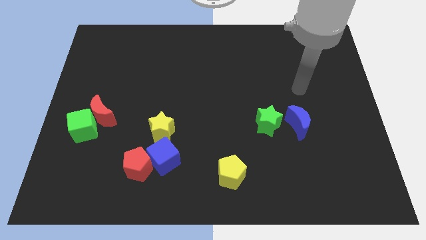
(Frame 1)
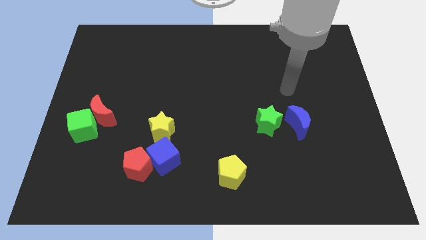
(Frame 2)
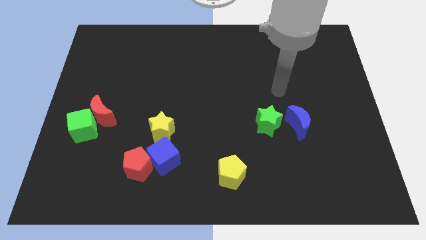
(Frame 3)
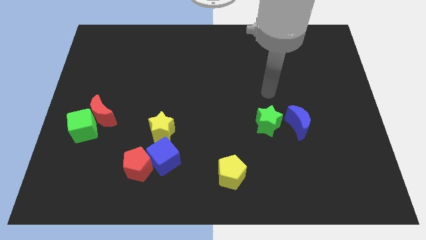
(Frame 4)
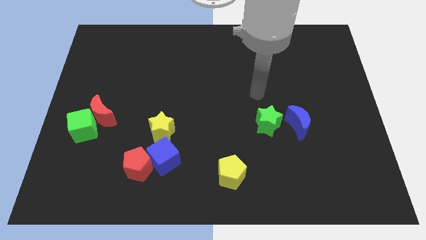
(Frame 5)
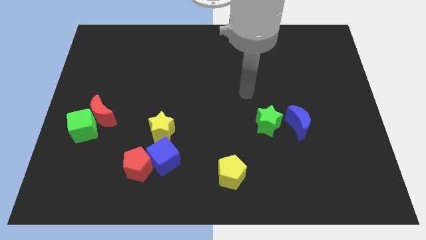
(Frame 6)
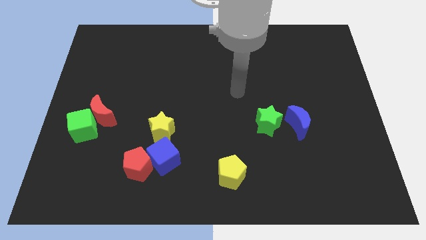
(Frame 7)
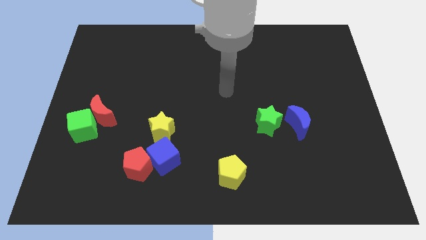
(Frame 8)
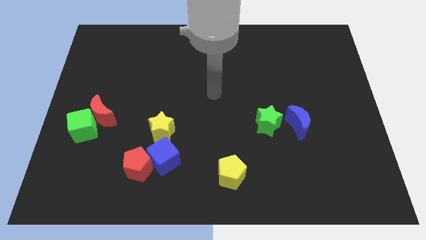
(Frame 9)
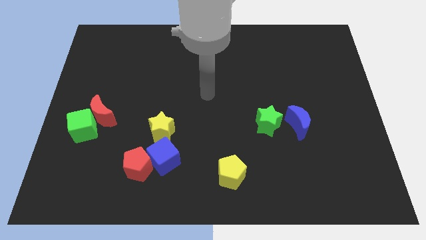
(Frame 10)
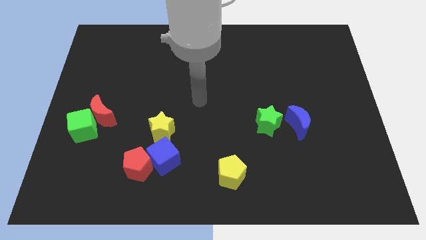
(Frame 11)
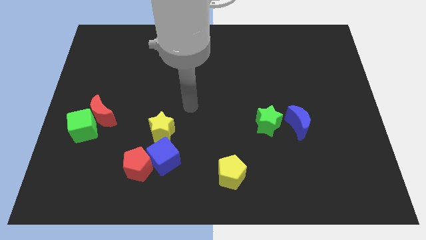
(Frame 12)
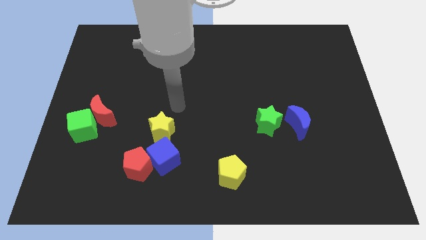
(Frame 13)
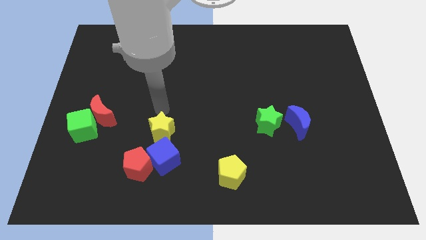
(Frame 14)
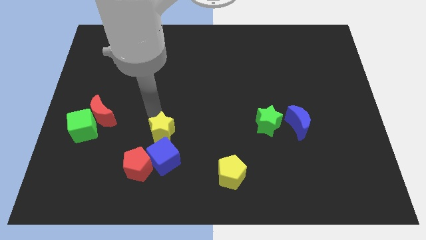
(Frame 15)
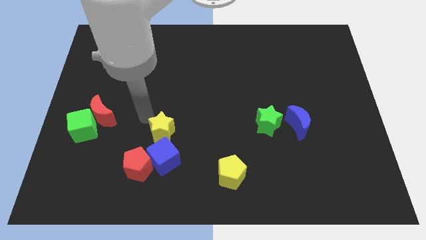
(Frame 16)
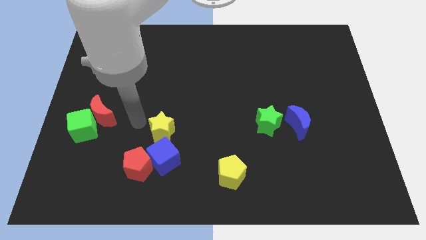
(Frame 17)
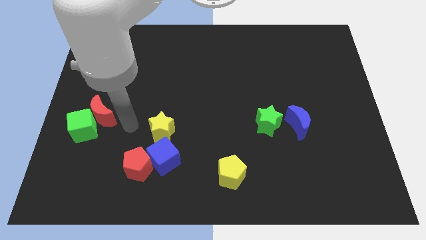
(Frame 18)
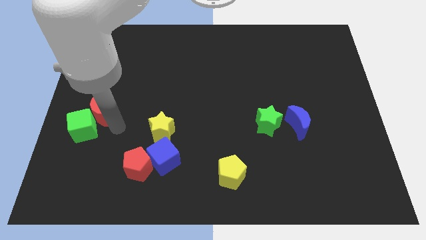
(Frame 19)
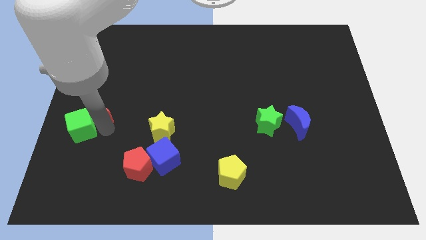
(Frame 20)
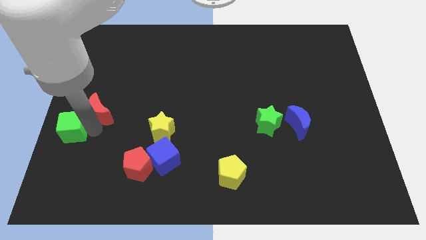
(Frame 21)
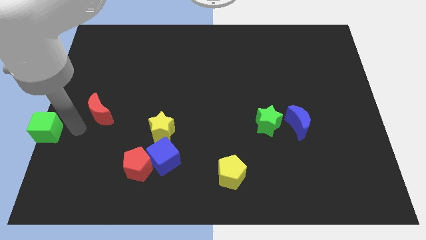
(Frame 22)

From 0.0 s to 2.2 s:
pull the red moon apart from the green cube

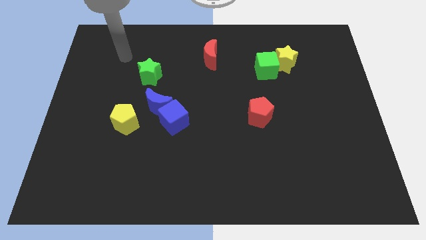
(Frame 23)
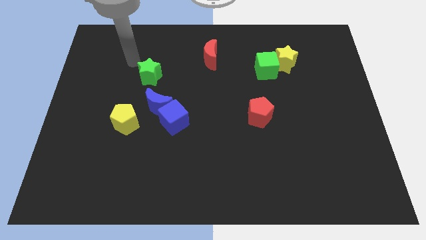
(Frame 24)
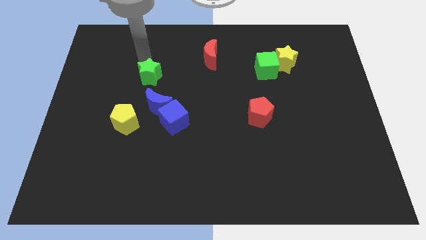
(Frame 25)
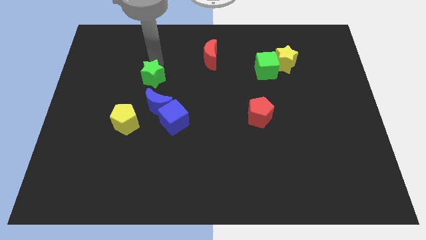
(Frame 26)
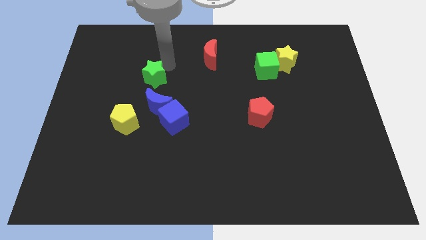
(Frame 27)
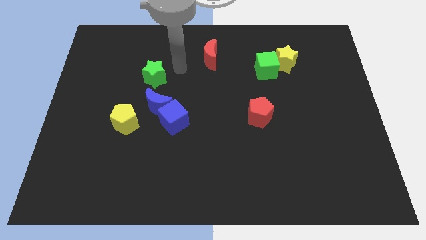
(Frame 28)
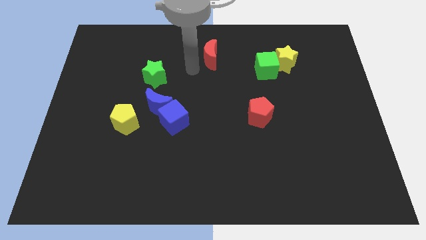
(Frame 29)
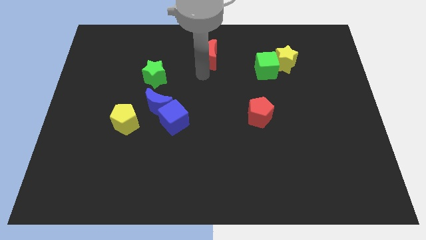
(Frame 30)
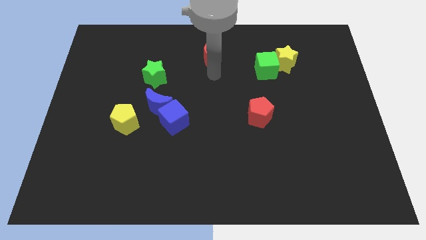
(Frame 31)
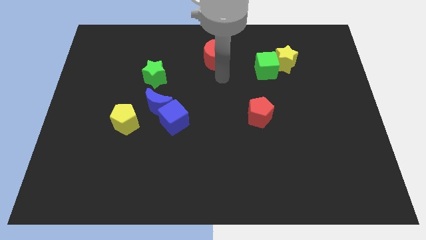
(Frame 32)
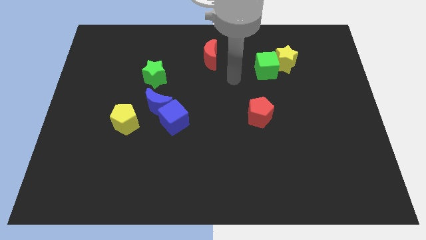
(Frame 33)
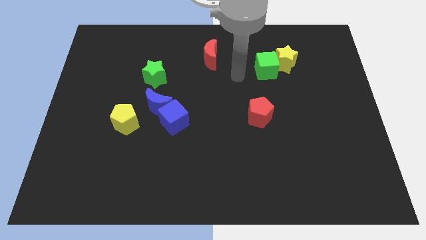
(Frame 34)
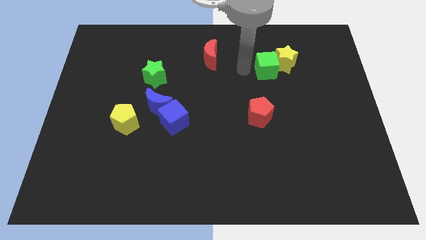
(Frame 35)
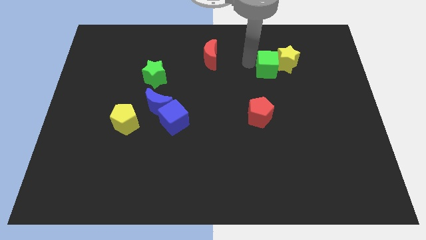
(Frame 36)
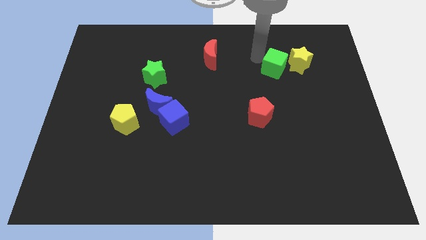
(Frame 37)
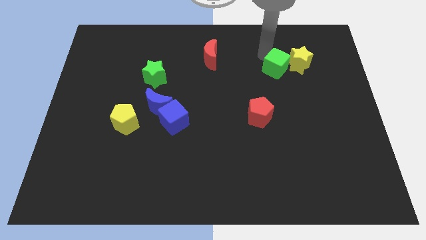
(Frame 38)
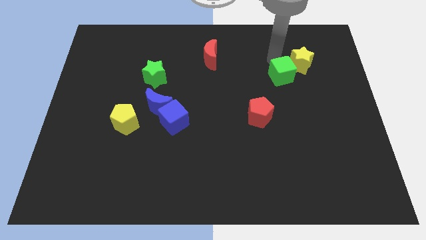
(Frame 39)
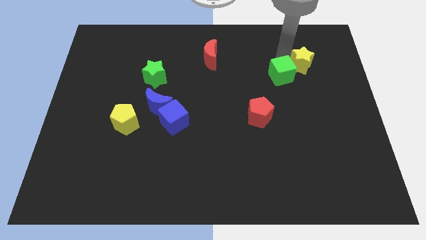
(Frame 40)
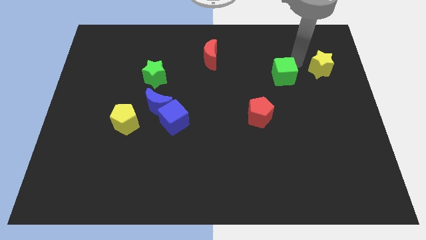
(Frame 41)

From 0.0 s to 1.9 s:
move the green cube away from the yellow star

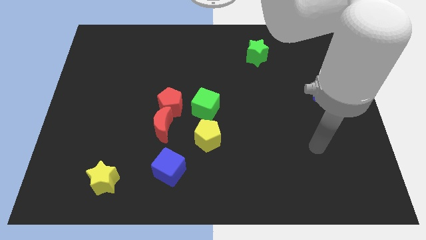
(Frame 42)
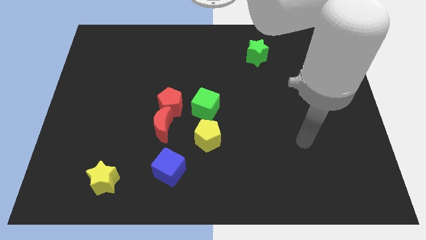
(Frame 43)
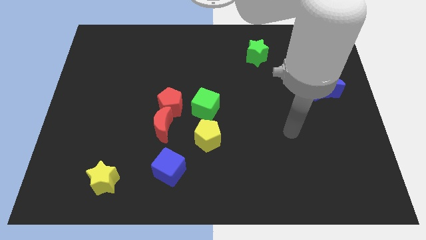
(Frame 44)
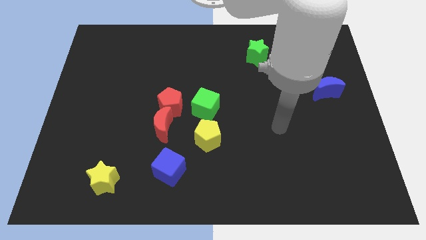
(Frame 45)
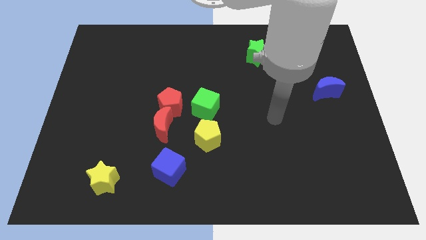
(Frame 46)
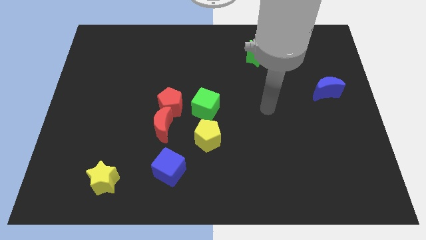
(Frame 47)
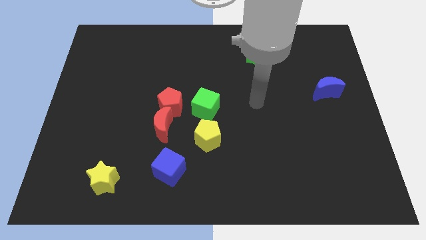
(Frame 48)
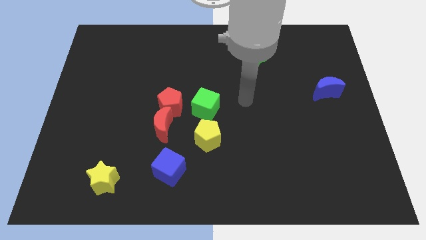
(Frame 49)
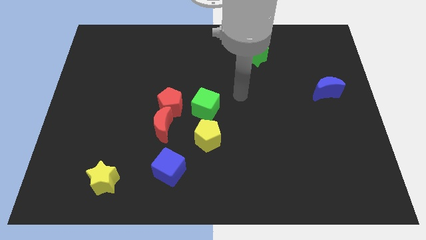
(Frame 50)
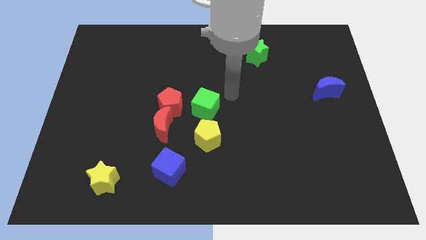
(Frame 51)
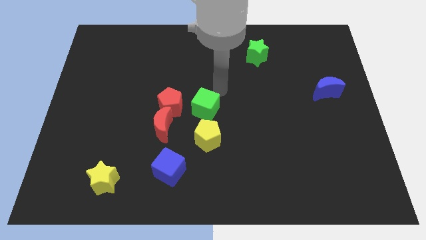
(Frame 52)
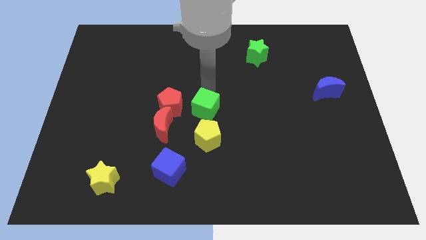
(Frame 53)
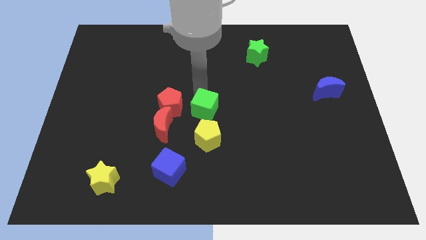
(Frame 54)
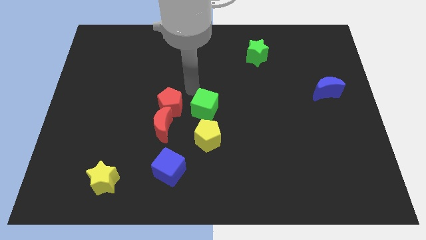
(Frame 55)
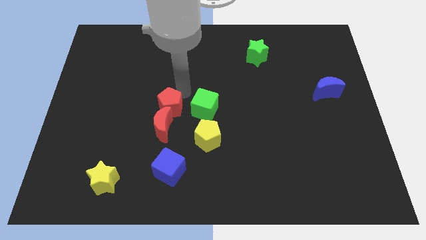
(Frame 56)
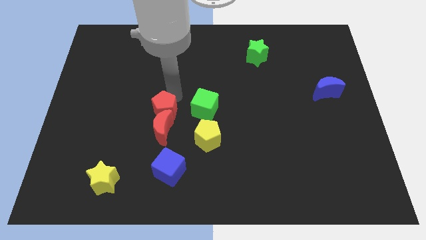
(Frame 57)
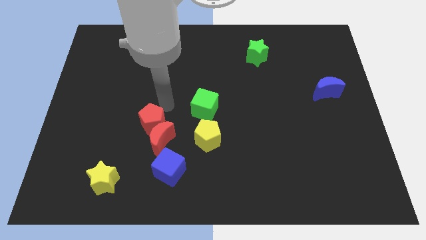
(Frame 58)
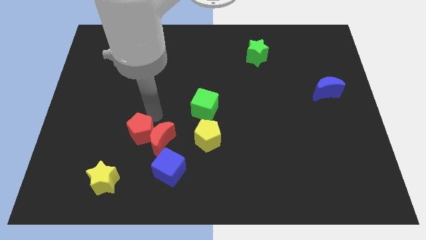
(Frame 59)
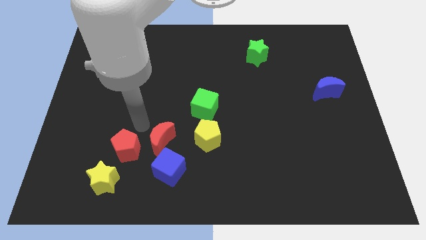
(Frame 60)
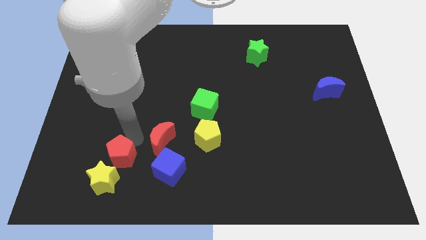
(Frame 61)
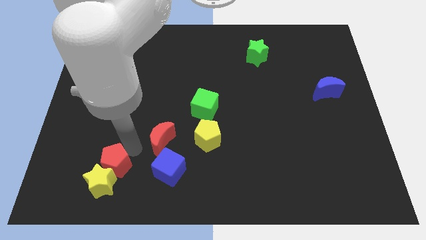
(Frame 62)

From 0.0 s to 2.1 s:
separate the red moon from the red pentagon

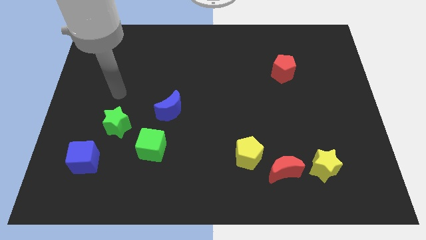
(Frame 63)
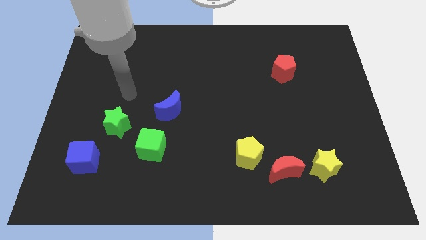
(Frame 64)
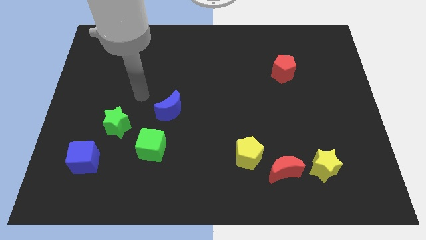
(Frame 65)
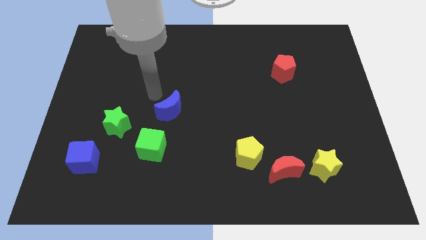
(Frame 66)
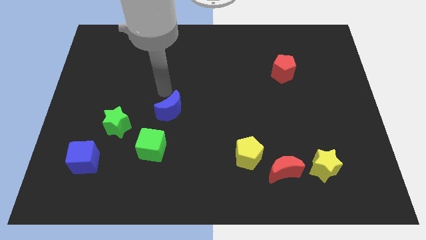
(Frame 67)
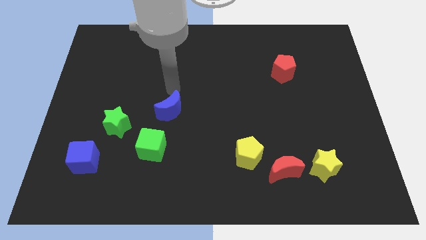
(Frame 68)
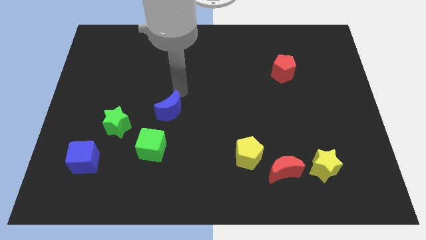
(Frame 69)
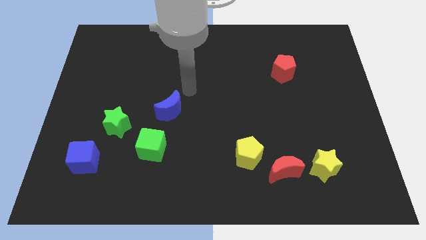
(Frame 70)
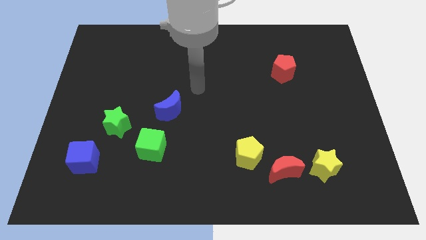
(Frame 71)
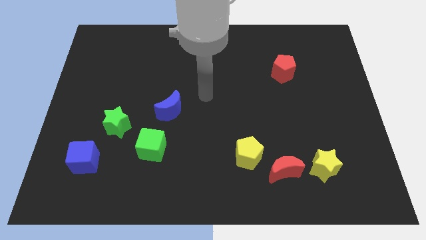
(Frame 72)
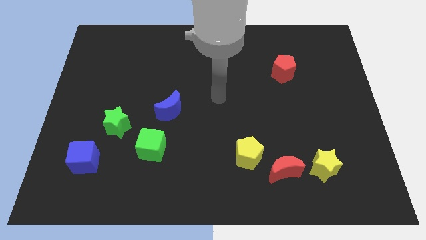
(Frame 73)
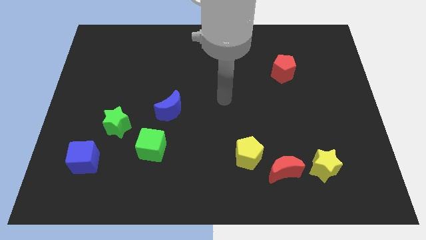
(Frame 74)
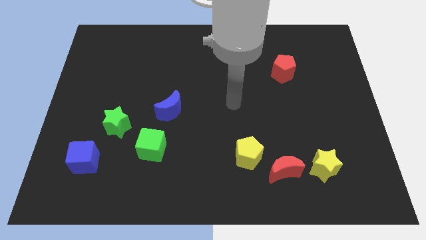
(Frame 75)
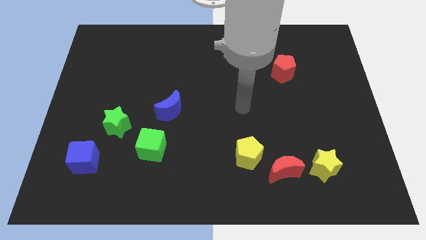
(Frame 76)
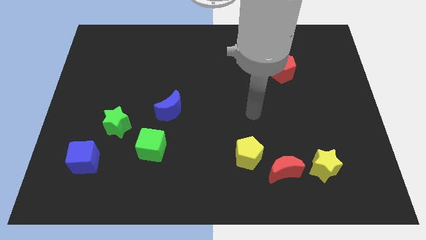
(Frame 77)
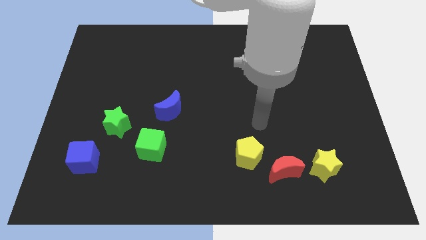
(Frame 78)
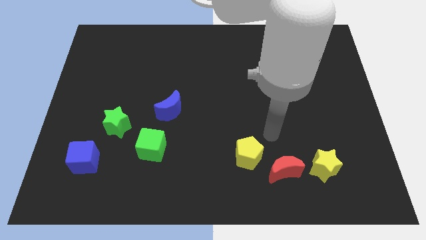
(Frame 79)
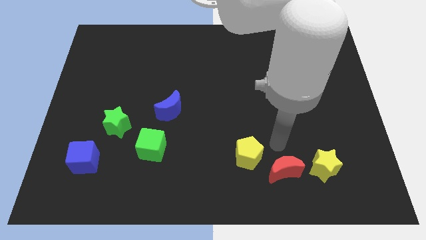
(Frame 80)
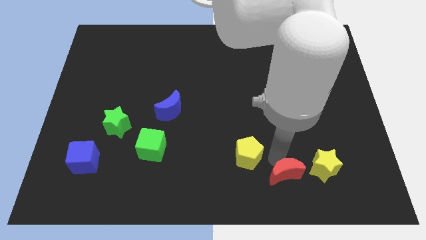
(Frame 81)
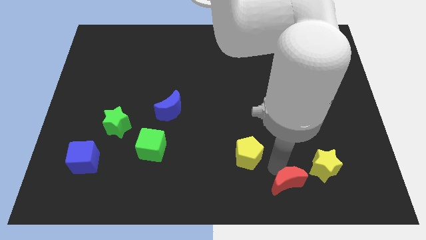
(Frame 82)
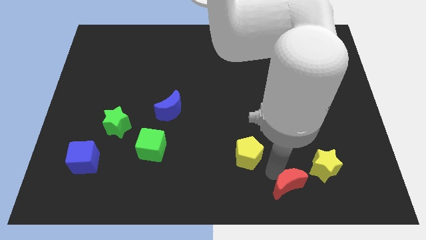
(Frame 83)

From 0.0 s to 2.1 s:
move the yellow pentagon away from the red moon

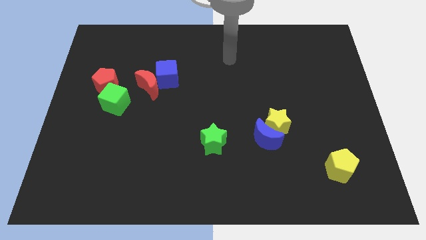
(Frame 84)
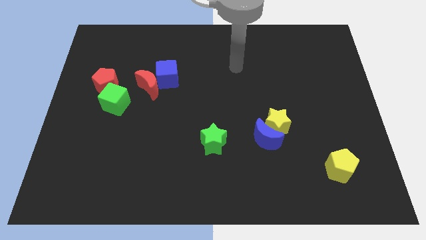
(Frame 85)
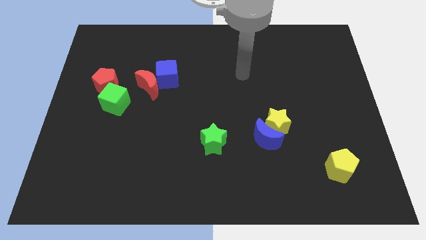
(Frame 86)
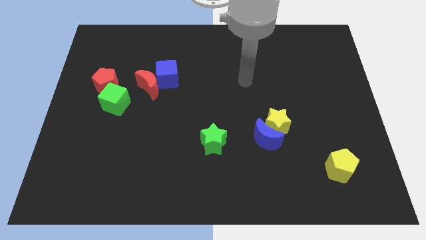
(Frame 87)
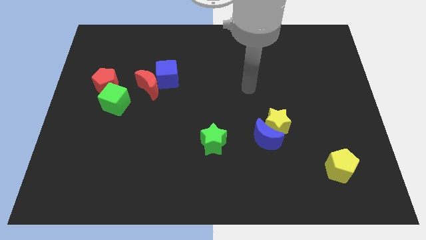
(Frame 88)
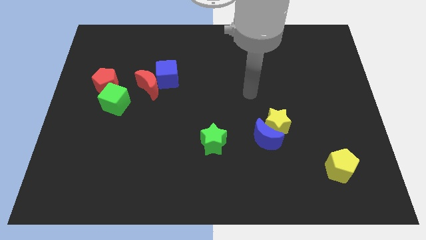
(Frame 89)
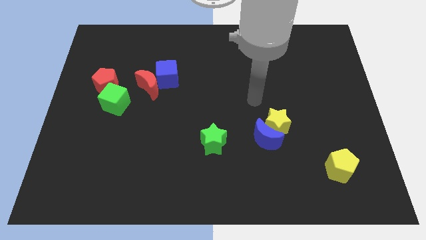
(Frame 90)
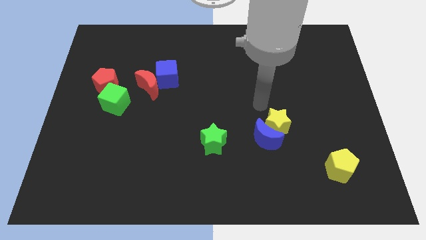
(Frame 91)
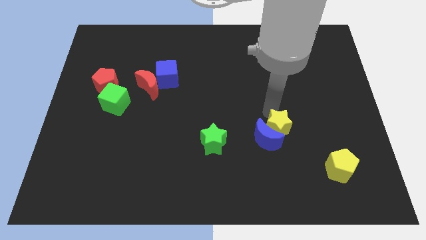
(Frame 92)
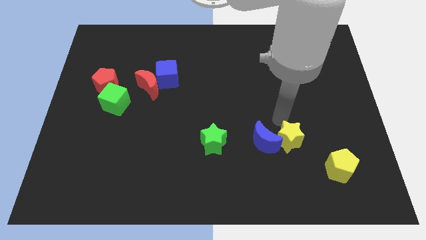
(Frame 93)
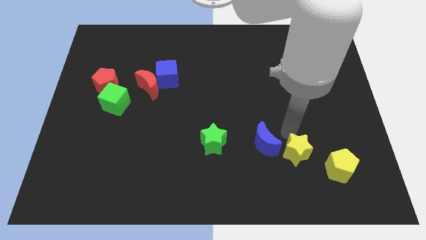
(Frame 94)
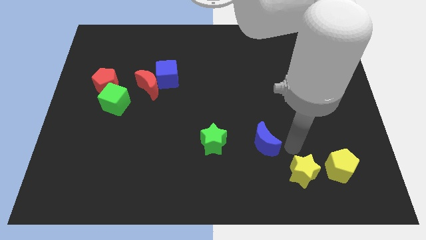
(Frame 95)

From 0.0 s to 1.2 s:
move the blue moon away from the yellow star
